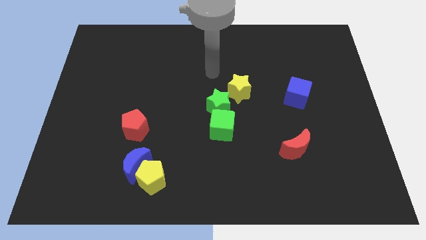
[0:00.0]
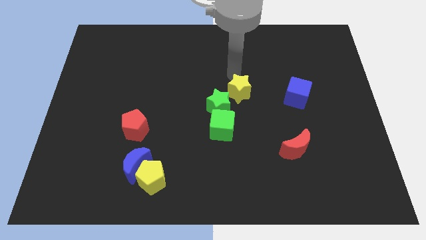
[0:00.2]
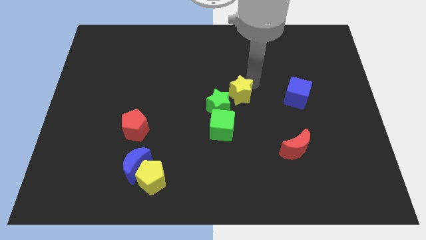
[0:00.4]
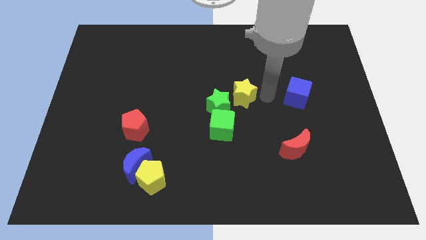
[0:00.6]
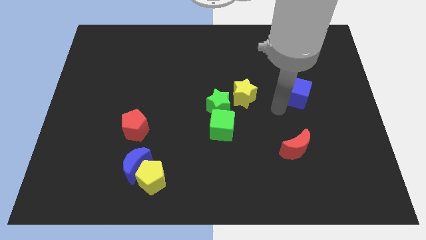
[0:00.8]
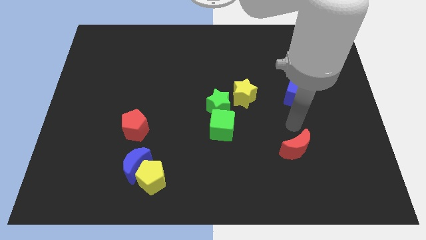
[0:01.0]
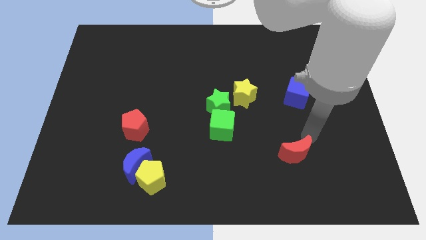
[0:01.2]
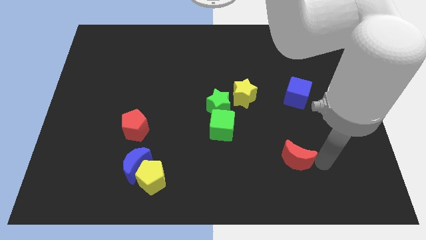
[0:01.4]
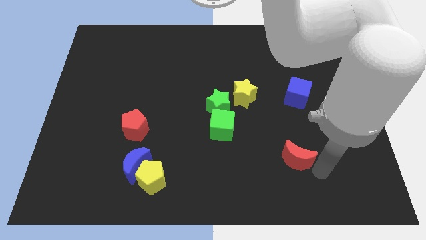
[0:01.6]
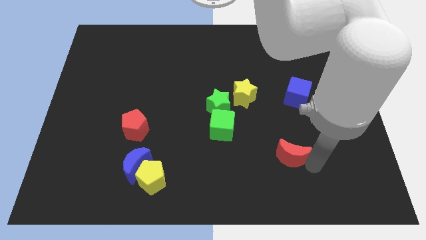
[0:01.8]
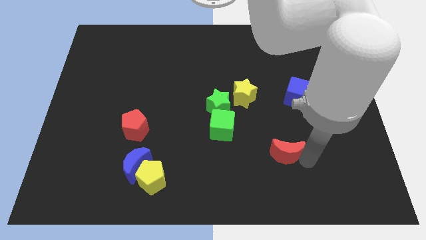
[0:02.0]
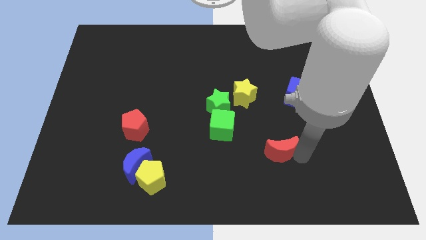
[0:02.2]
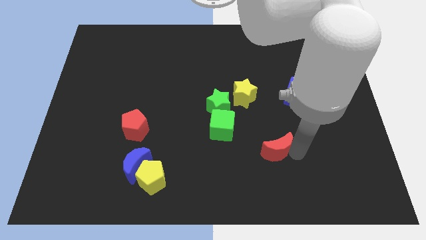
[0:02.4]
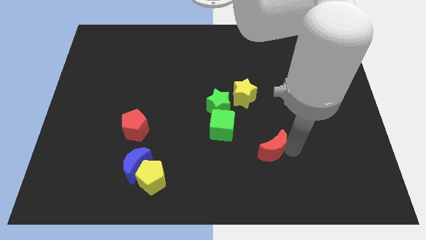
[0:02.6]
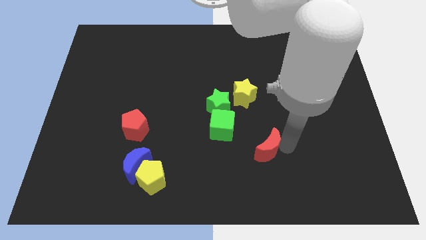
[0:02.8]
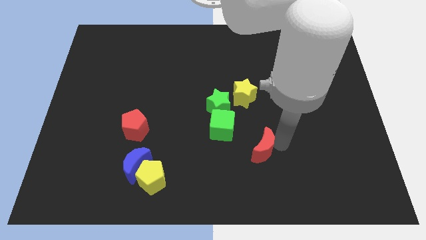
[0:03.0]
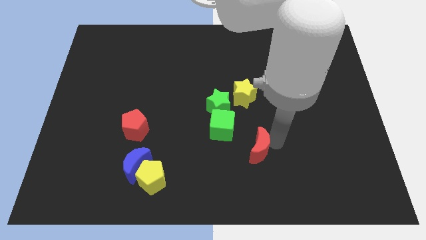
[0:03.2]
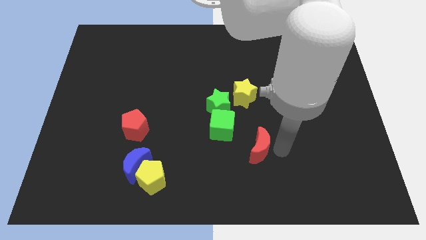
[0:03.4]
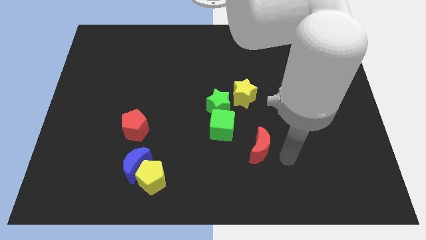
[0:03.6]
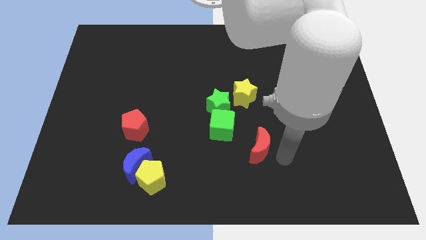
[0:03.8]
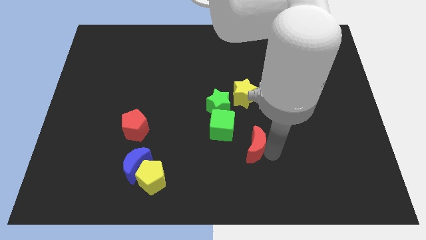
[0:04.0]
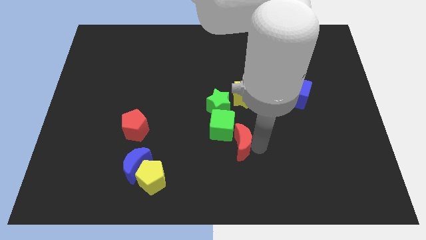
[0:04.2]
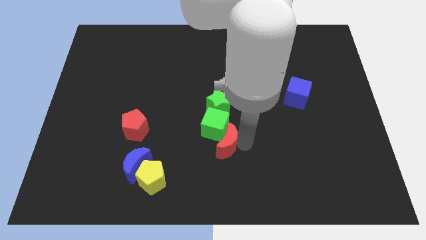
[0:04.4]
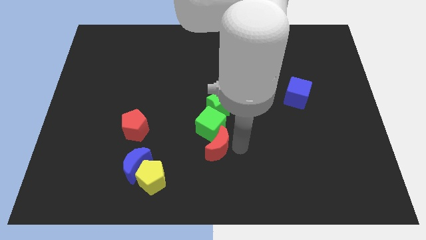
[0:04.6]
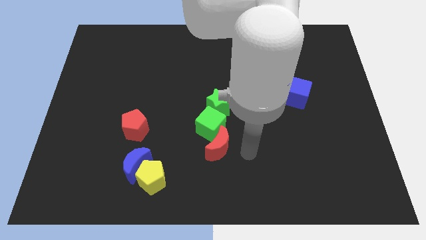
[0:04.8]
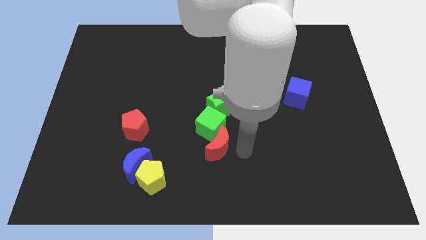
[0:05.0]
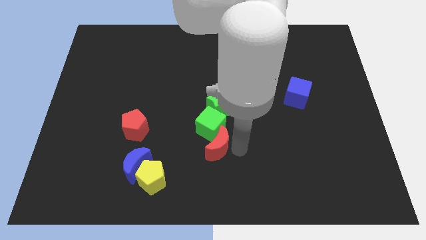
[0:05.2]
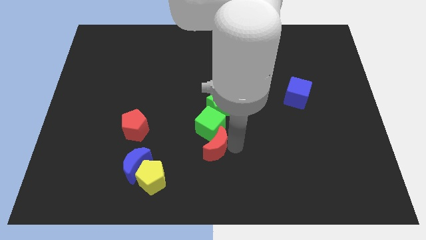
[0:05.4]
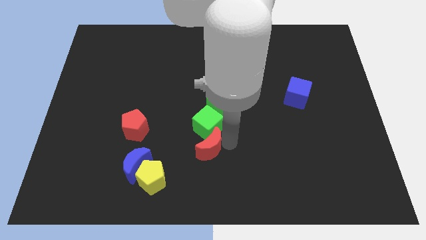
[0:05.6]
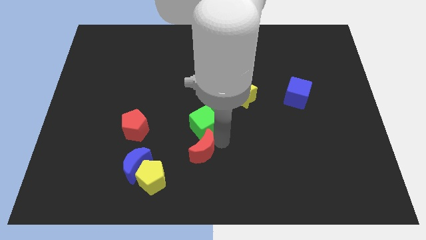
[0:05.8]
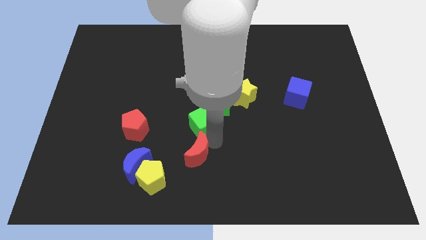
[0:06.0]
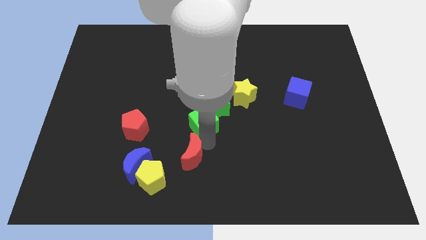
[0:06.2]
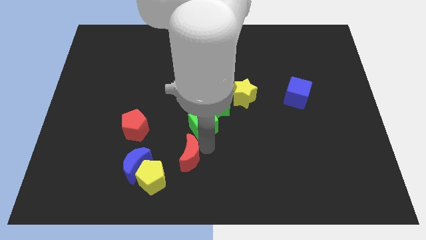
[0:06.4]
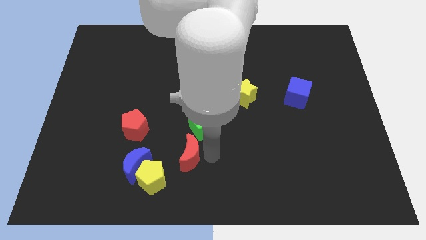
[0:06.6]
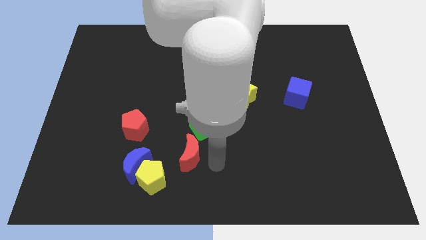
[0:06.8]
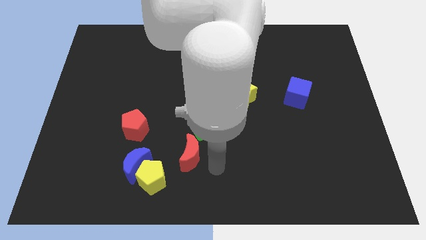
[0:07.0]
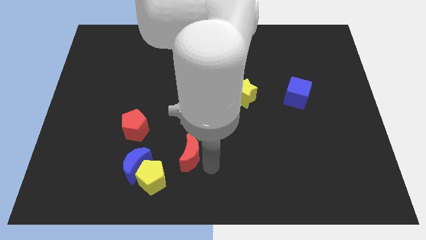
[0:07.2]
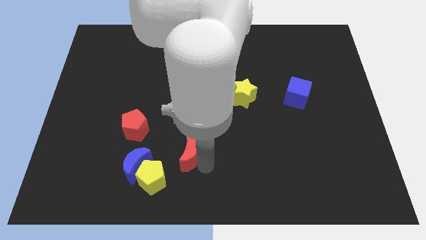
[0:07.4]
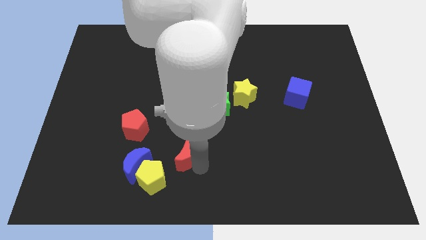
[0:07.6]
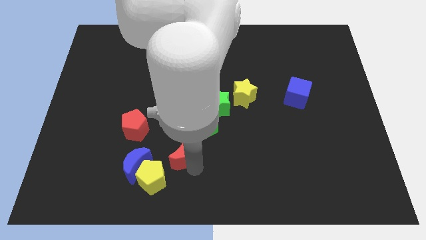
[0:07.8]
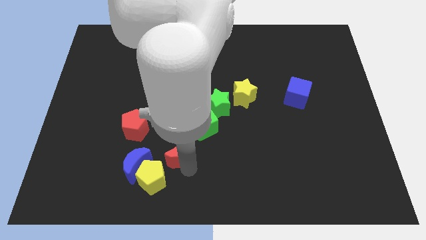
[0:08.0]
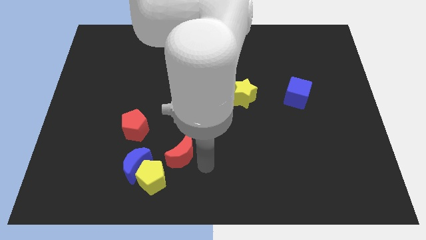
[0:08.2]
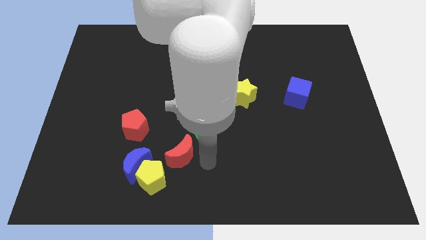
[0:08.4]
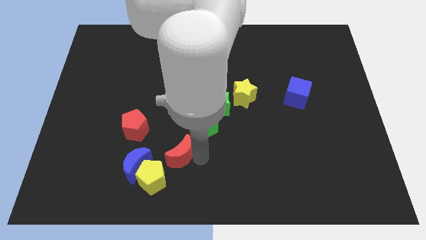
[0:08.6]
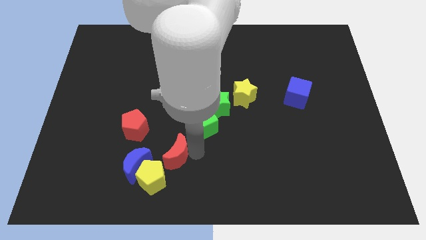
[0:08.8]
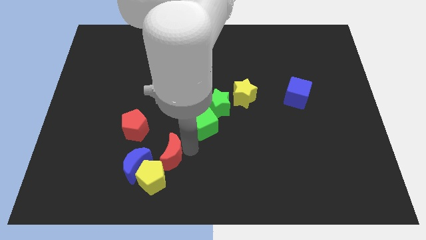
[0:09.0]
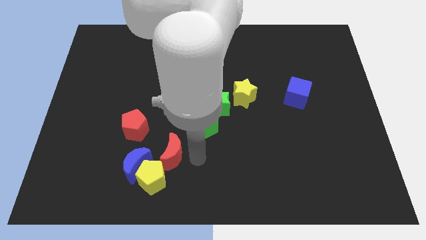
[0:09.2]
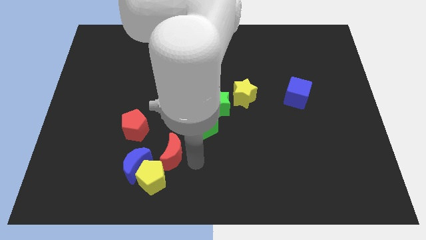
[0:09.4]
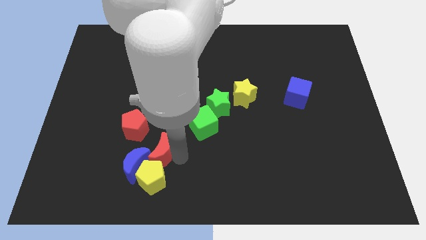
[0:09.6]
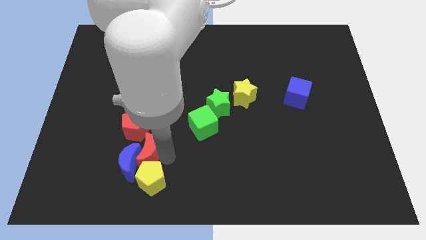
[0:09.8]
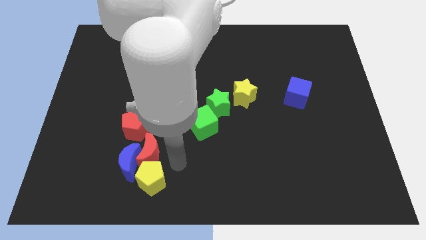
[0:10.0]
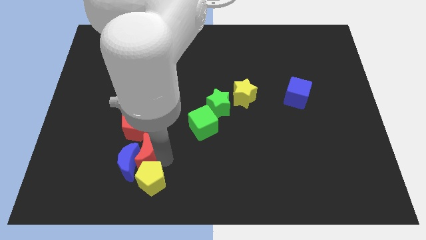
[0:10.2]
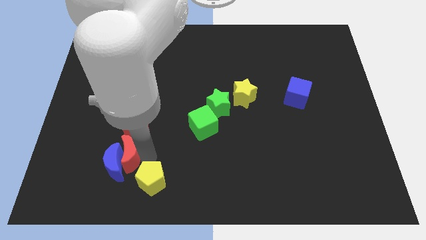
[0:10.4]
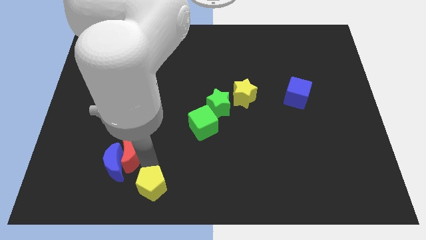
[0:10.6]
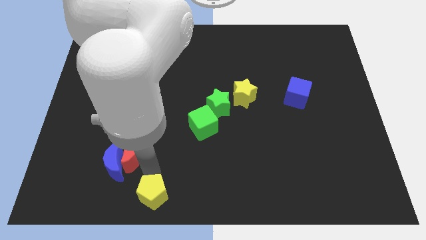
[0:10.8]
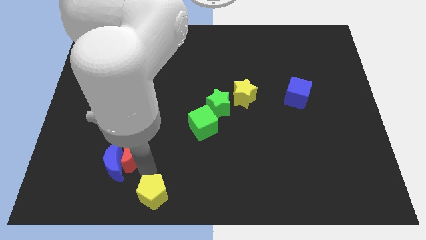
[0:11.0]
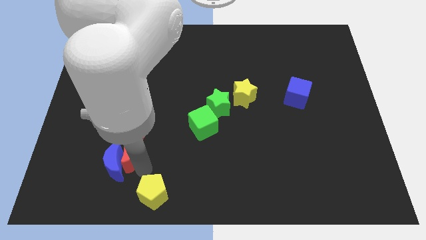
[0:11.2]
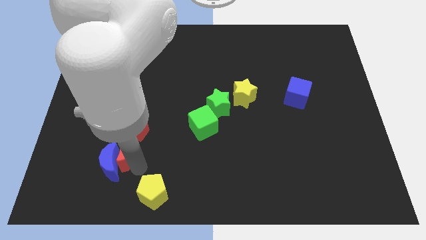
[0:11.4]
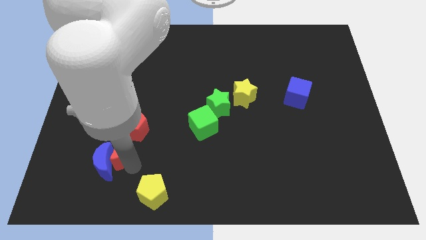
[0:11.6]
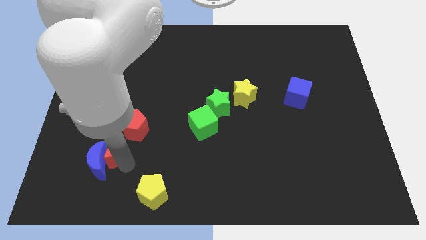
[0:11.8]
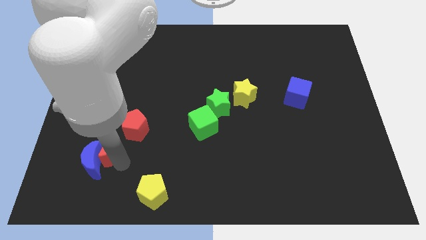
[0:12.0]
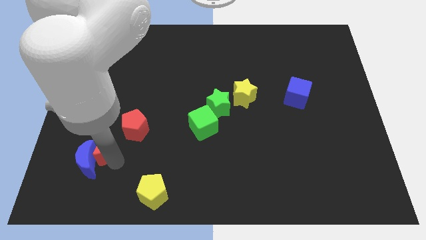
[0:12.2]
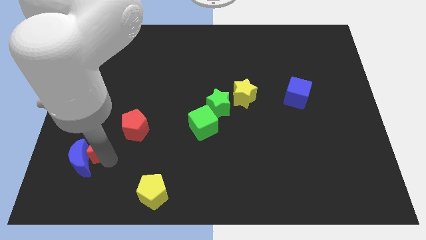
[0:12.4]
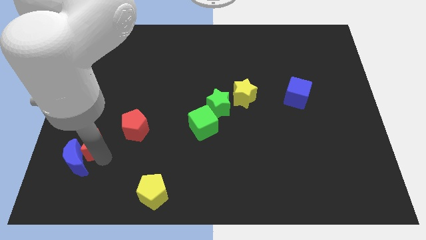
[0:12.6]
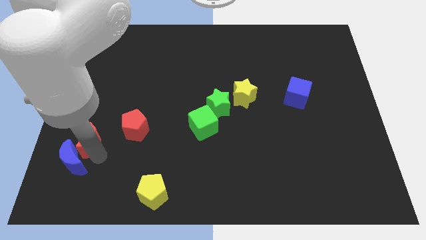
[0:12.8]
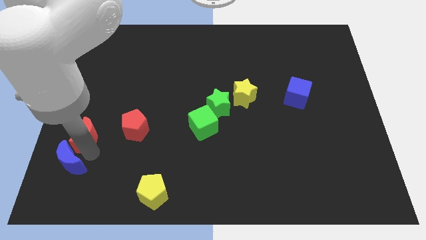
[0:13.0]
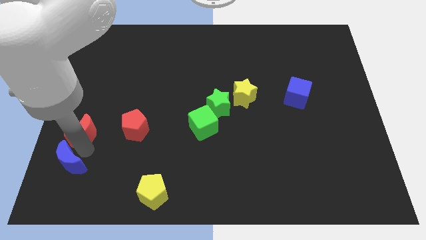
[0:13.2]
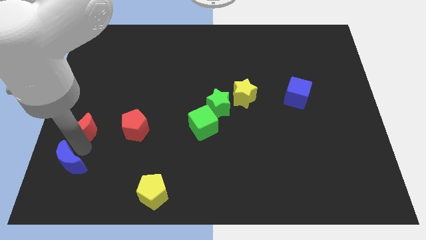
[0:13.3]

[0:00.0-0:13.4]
slide the red moon to the center left

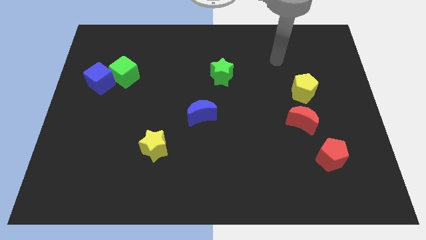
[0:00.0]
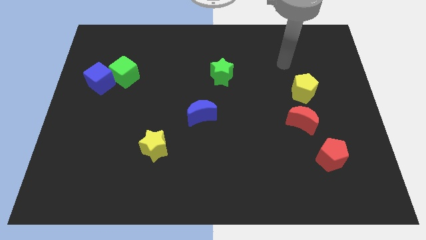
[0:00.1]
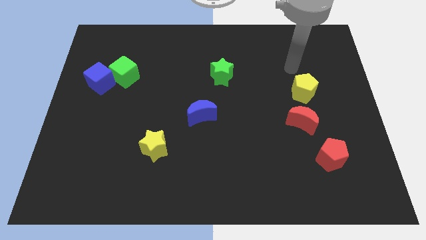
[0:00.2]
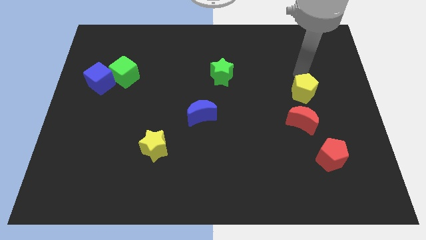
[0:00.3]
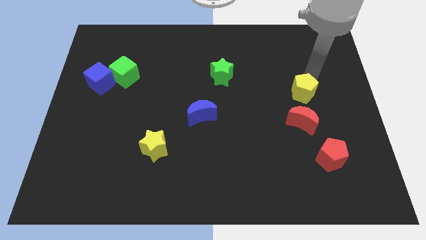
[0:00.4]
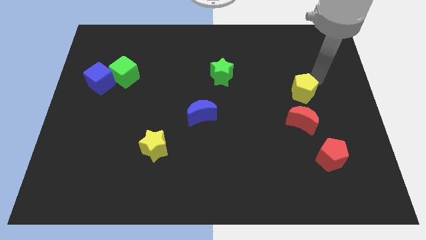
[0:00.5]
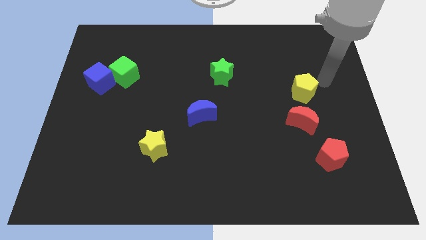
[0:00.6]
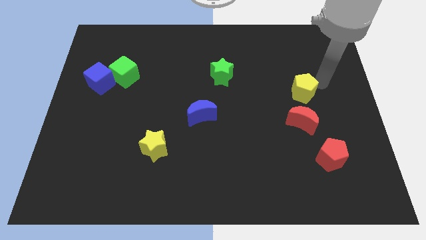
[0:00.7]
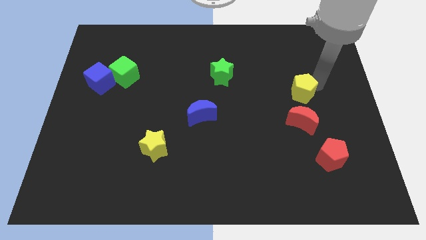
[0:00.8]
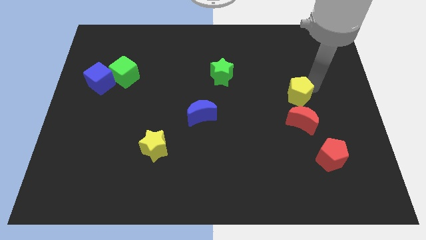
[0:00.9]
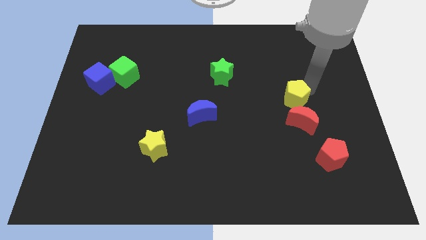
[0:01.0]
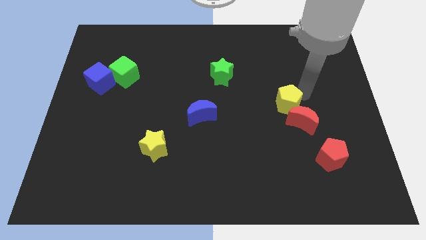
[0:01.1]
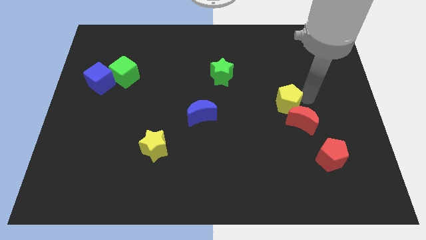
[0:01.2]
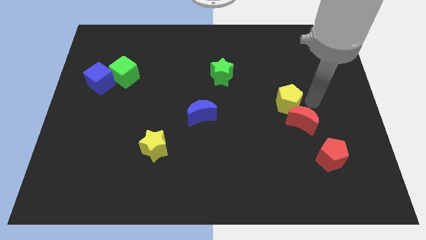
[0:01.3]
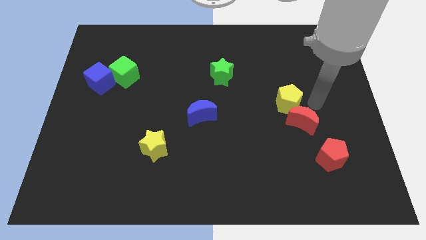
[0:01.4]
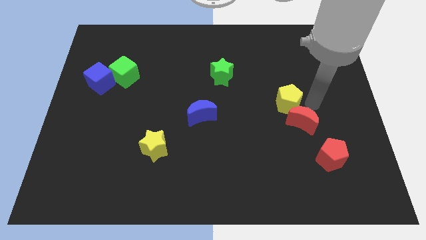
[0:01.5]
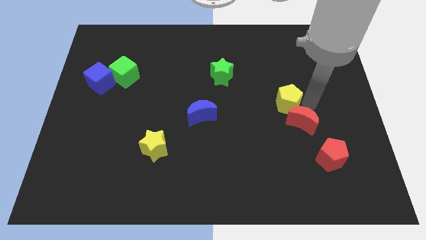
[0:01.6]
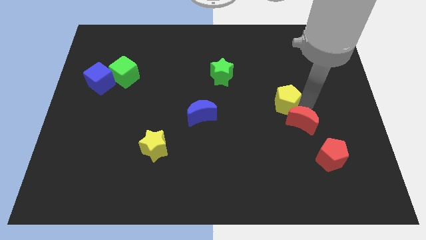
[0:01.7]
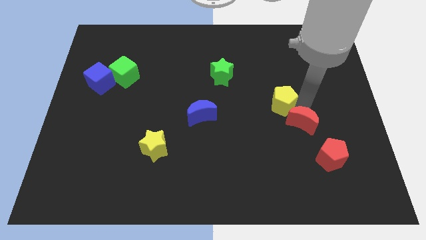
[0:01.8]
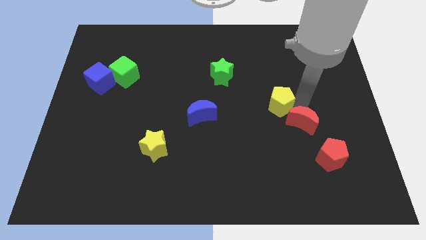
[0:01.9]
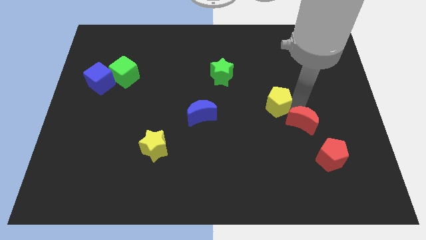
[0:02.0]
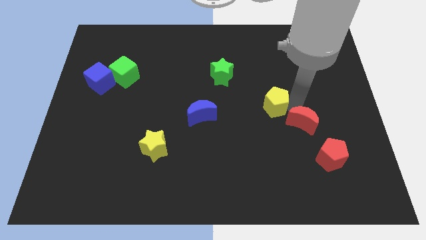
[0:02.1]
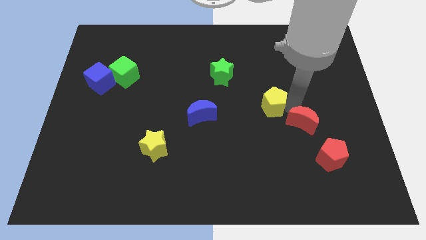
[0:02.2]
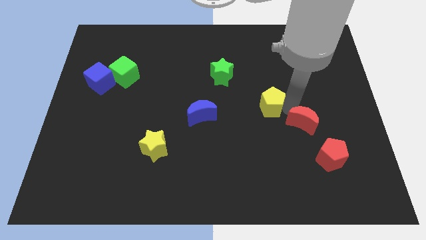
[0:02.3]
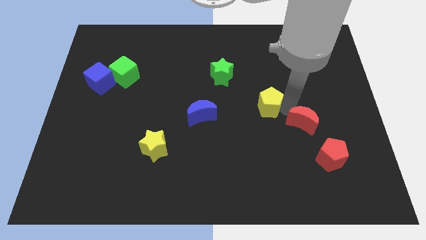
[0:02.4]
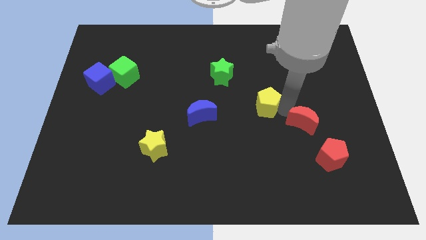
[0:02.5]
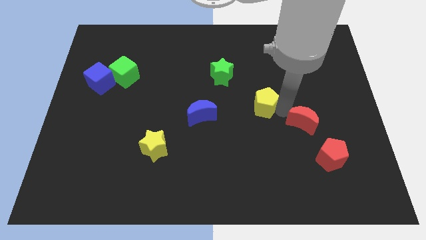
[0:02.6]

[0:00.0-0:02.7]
push the yellow pentagon to the middle
